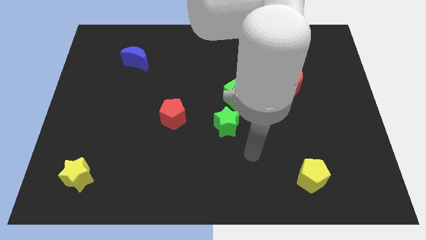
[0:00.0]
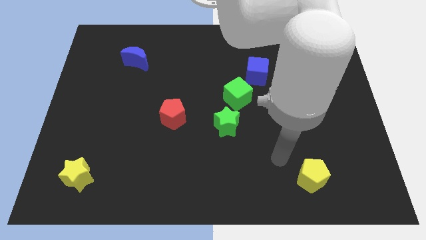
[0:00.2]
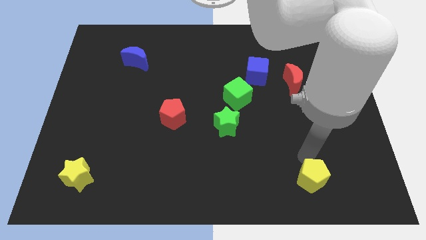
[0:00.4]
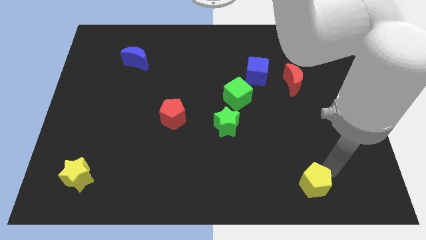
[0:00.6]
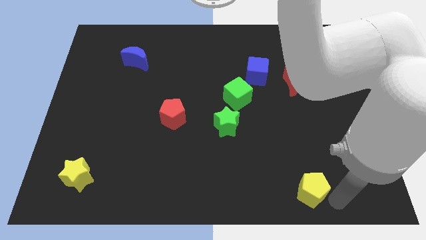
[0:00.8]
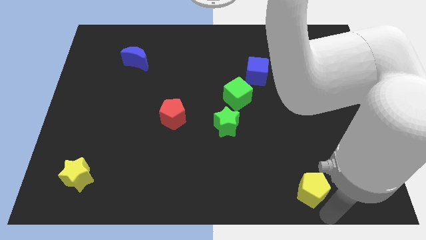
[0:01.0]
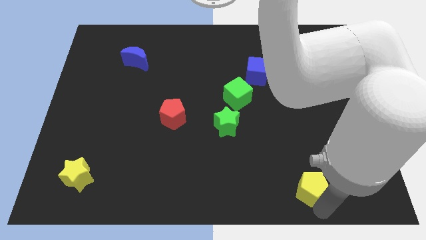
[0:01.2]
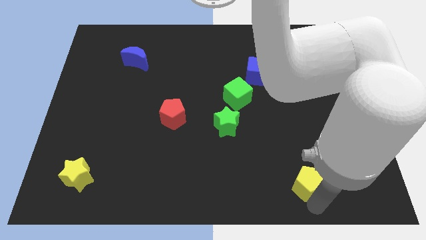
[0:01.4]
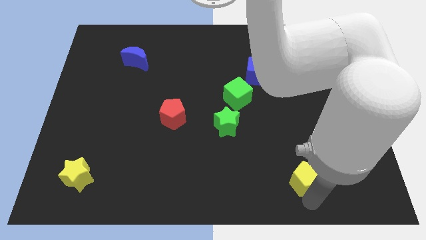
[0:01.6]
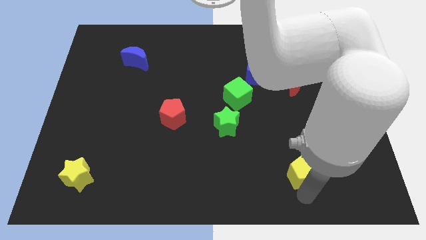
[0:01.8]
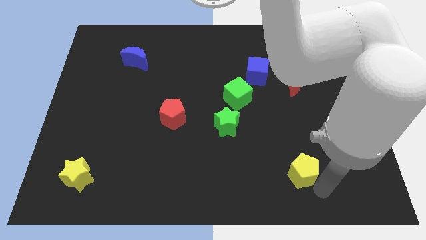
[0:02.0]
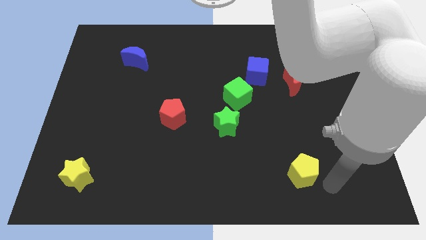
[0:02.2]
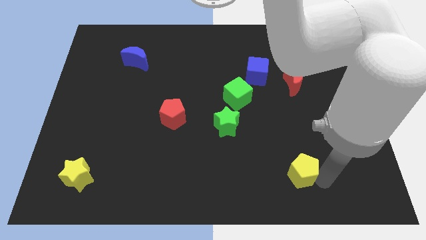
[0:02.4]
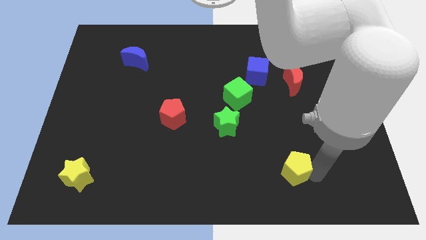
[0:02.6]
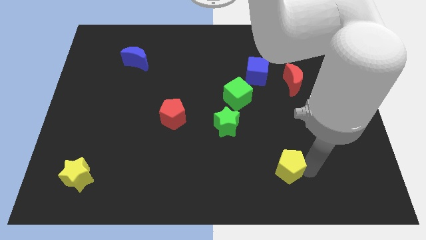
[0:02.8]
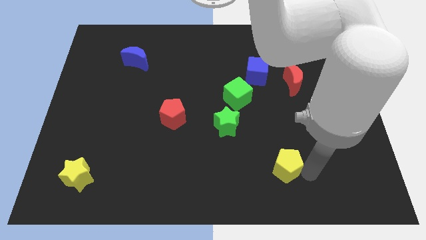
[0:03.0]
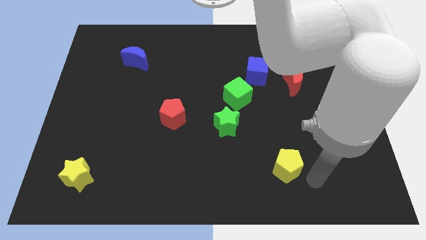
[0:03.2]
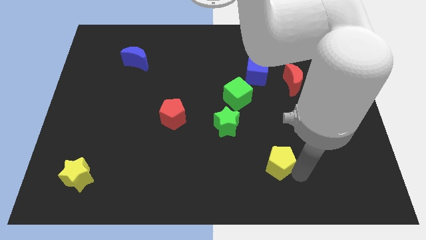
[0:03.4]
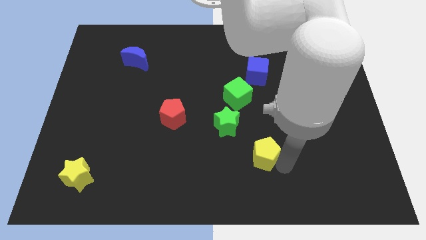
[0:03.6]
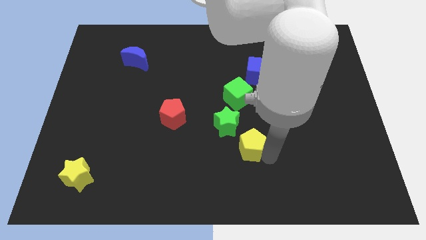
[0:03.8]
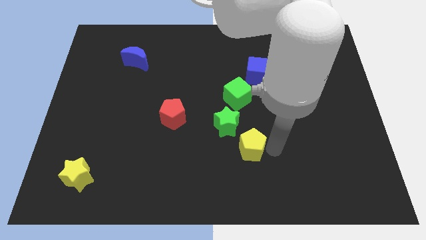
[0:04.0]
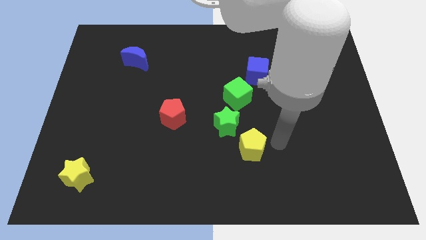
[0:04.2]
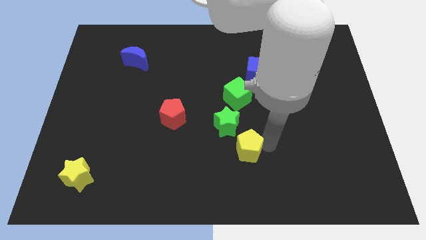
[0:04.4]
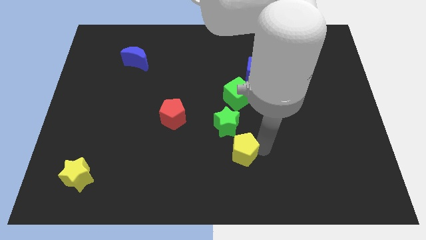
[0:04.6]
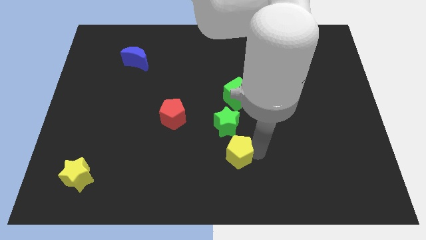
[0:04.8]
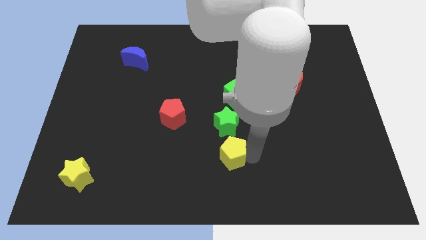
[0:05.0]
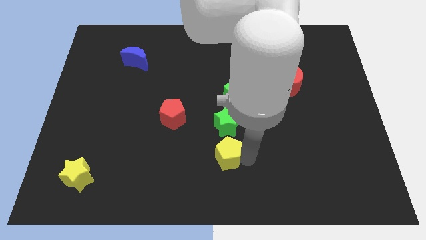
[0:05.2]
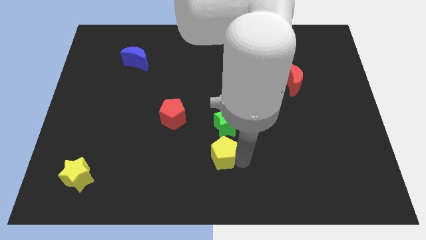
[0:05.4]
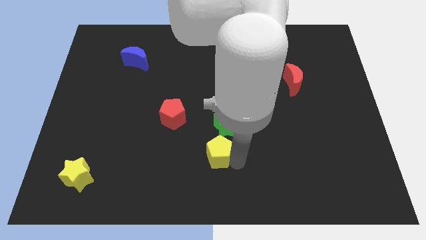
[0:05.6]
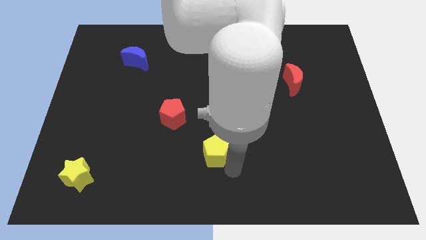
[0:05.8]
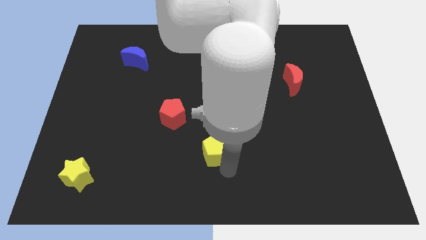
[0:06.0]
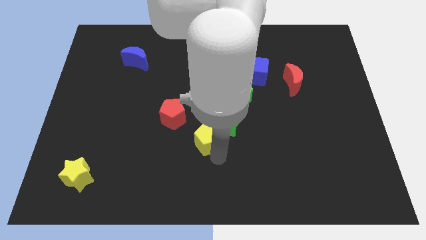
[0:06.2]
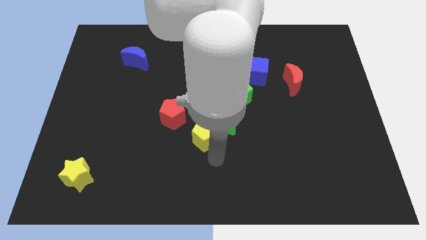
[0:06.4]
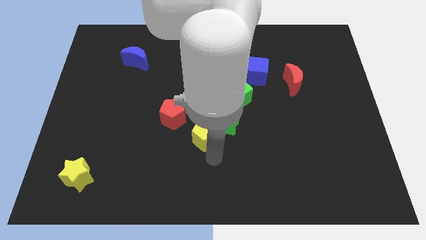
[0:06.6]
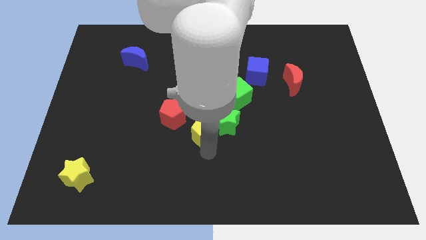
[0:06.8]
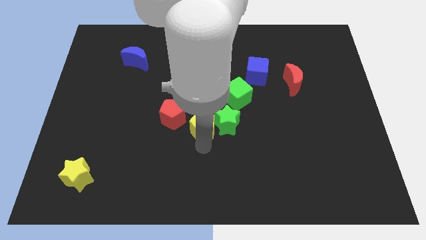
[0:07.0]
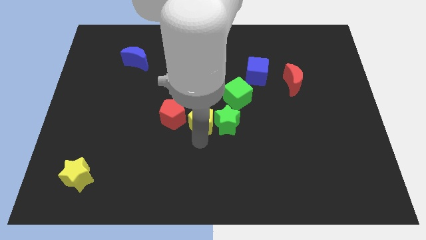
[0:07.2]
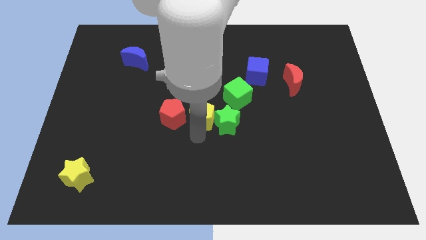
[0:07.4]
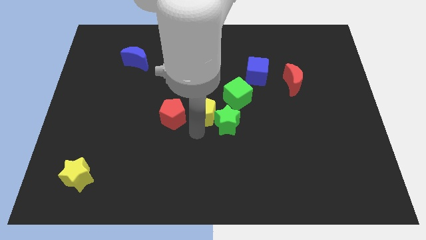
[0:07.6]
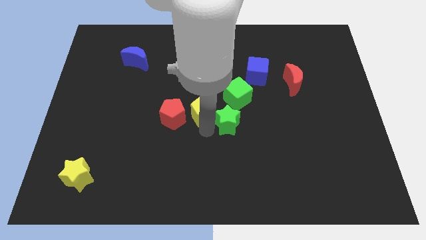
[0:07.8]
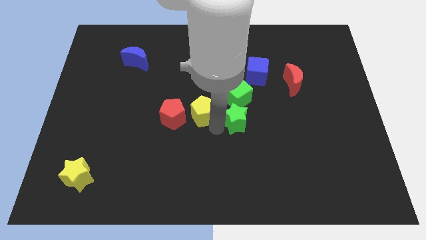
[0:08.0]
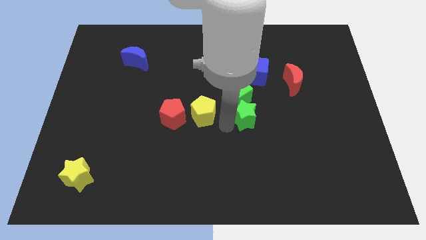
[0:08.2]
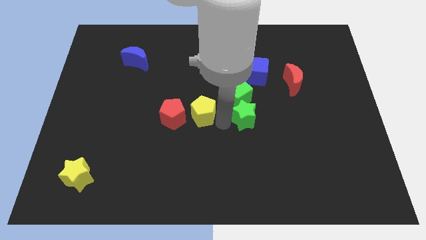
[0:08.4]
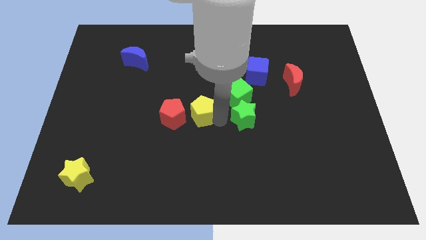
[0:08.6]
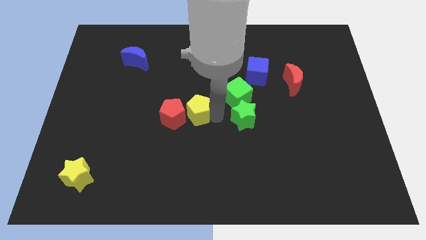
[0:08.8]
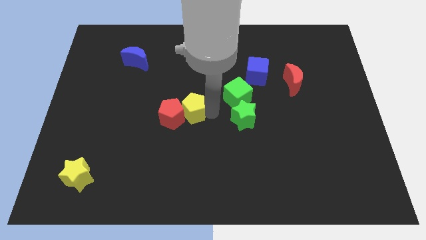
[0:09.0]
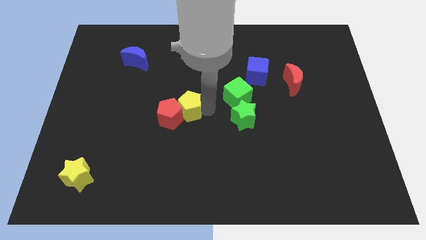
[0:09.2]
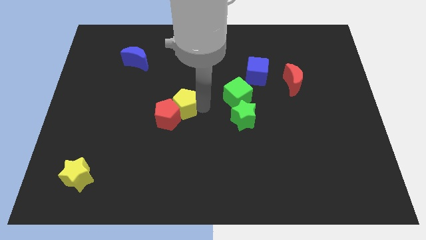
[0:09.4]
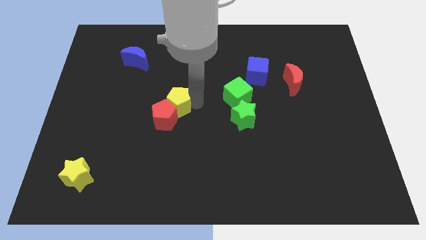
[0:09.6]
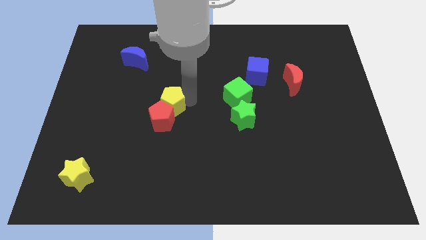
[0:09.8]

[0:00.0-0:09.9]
put the yellow pentagon to the top left side of the red pentagon

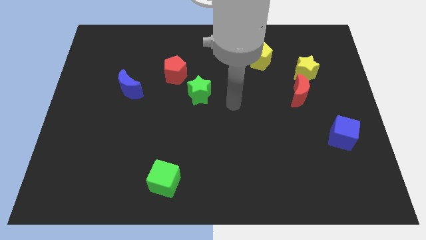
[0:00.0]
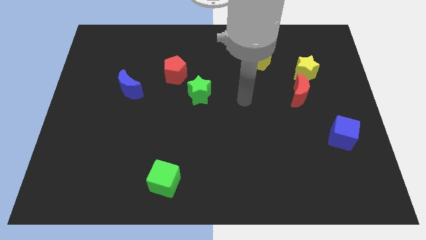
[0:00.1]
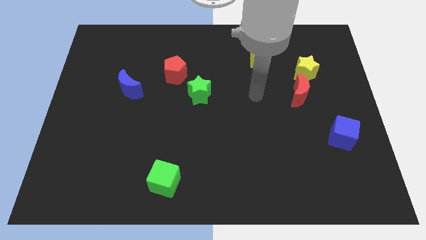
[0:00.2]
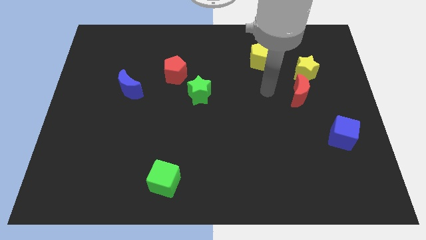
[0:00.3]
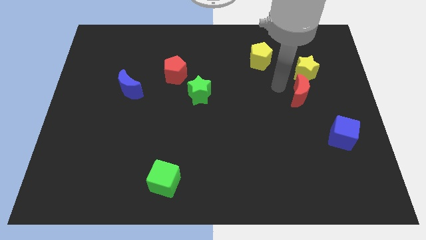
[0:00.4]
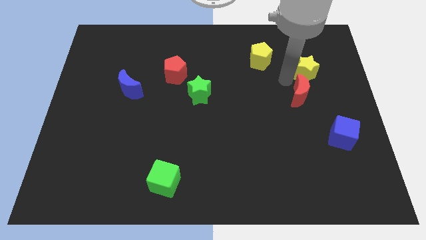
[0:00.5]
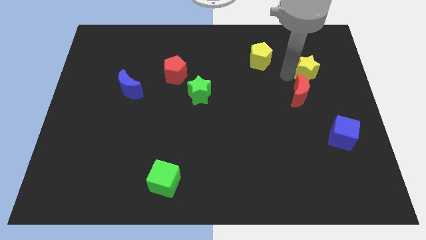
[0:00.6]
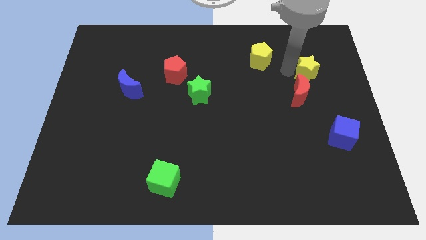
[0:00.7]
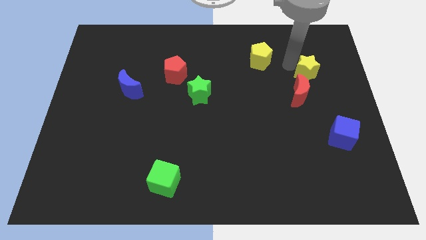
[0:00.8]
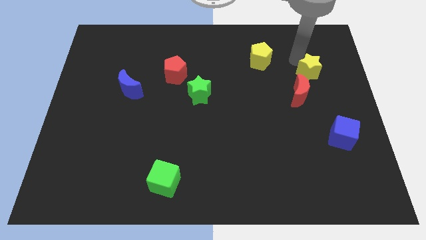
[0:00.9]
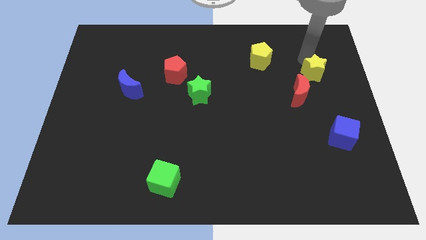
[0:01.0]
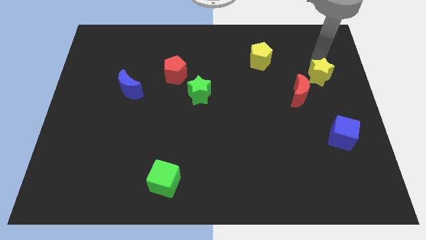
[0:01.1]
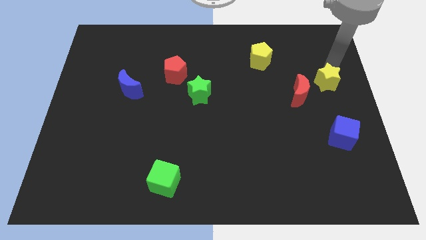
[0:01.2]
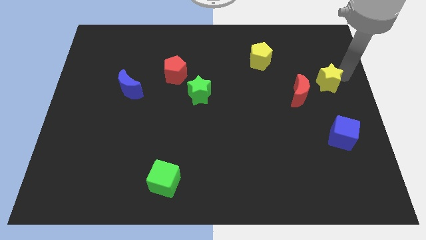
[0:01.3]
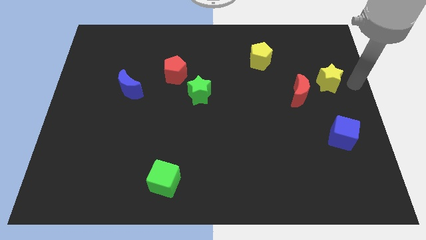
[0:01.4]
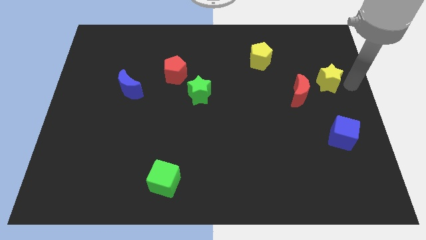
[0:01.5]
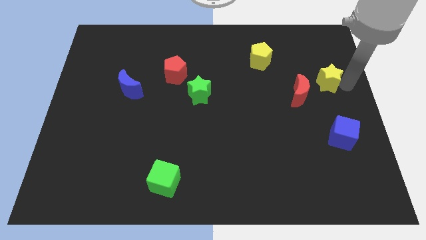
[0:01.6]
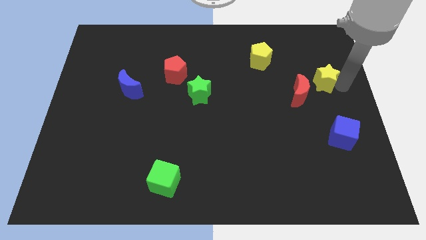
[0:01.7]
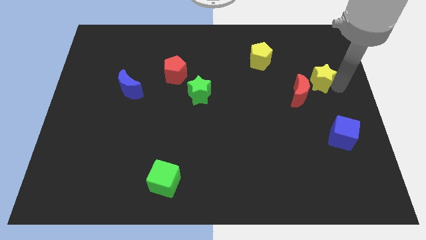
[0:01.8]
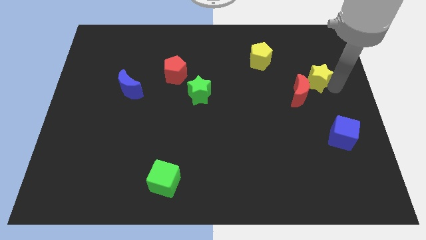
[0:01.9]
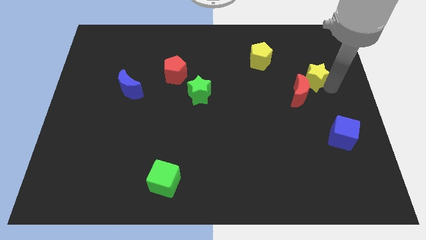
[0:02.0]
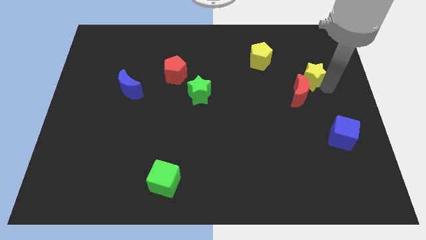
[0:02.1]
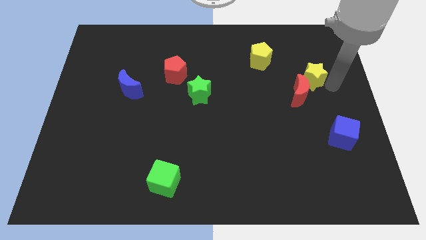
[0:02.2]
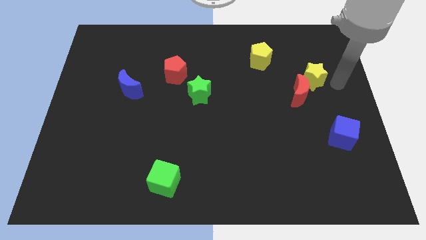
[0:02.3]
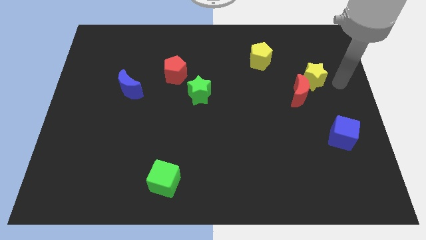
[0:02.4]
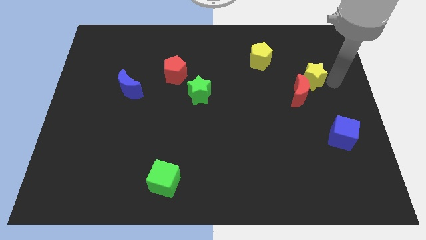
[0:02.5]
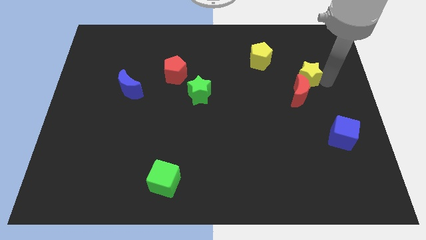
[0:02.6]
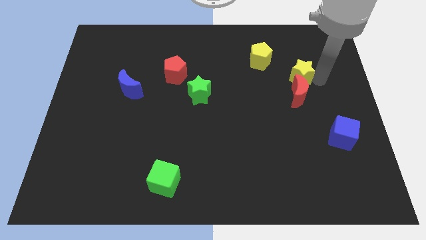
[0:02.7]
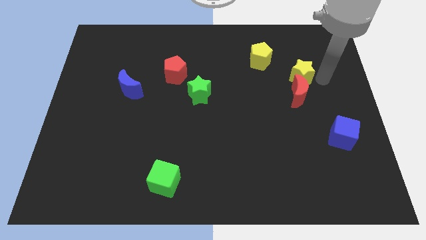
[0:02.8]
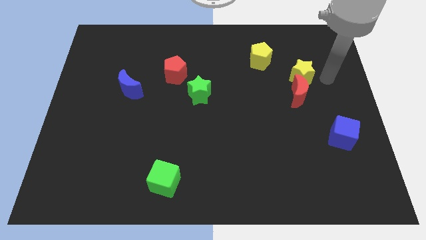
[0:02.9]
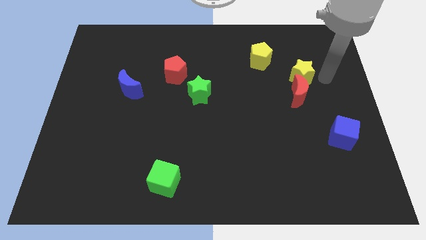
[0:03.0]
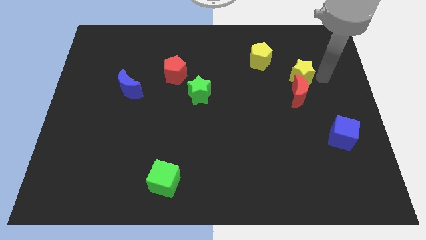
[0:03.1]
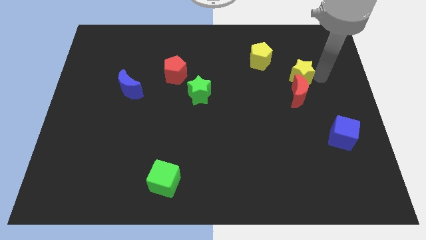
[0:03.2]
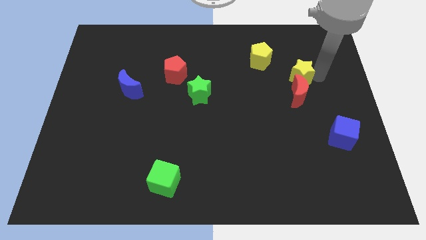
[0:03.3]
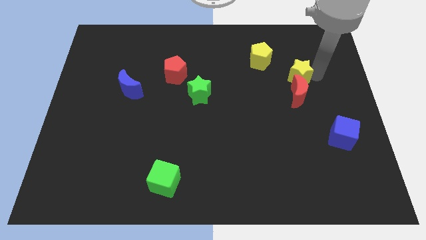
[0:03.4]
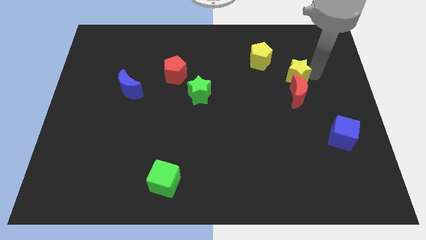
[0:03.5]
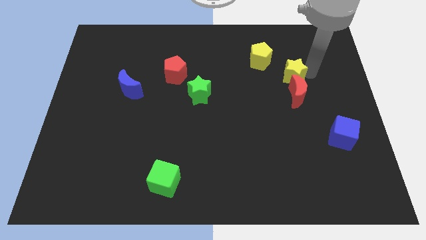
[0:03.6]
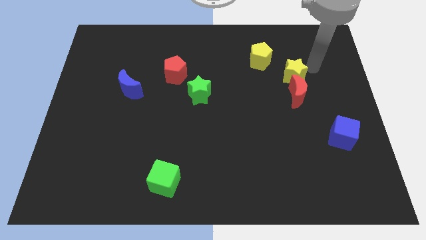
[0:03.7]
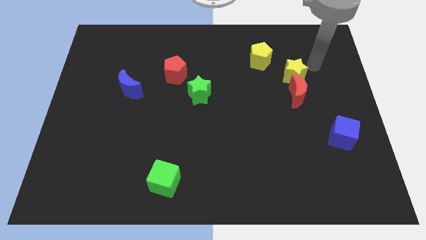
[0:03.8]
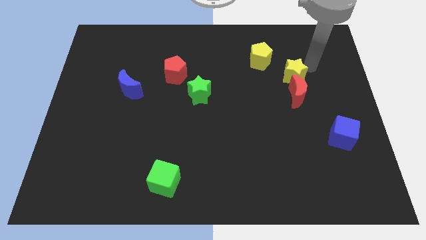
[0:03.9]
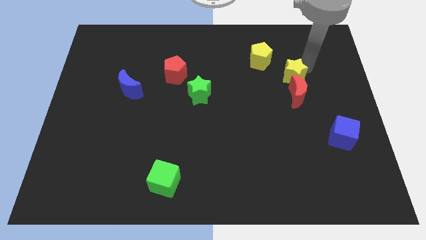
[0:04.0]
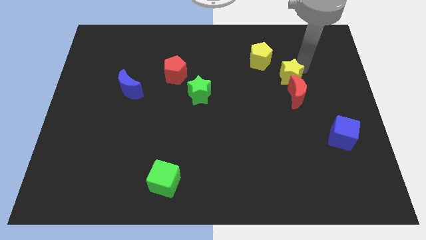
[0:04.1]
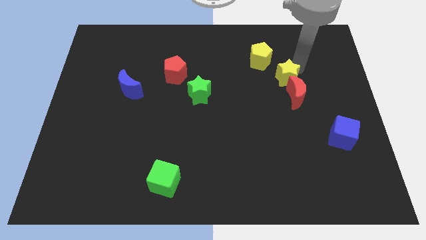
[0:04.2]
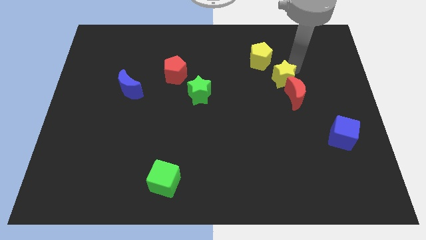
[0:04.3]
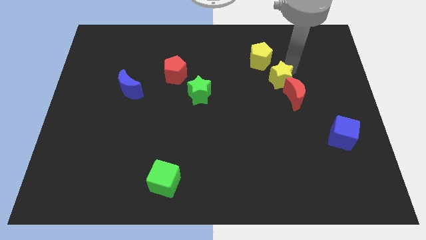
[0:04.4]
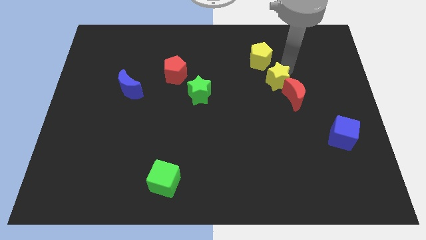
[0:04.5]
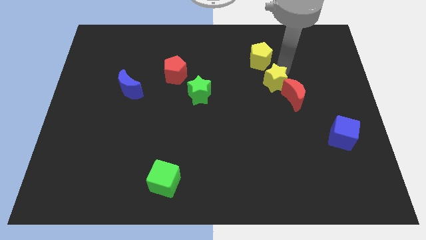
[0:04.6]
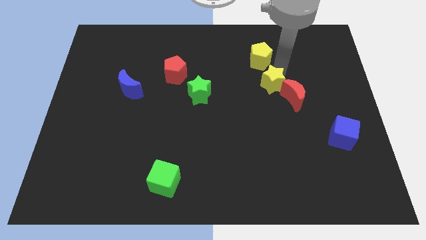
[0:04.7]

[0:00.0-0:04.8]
put the yellow star to the left of the red moon
